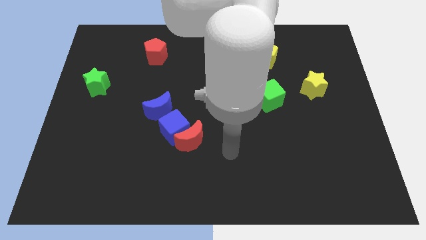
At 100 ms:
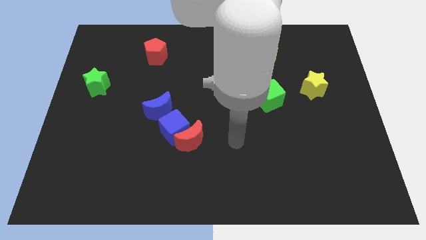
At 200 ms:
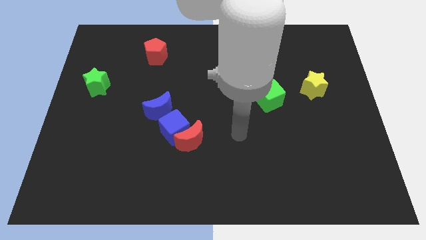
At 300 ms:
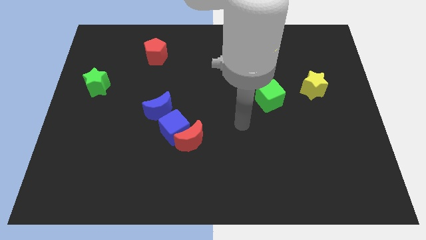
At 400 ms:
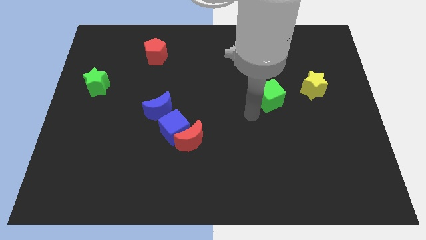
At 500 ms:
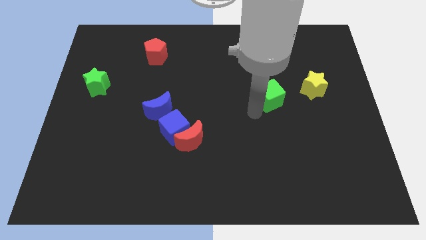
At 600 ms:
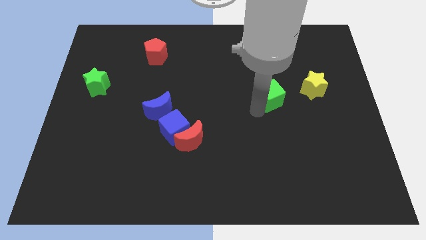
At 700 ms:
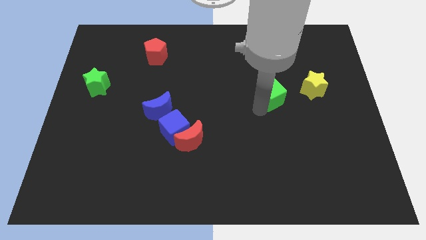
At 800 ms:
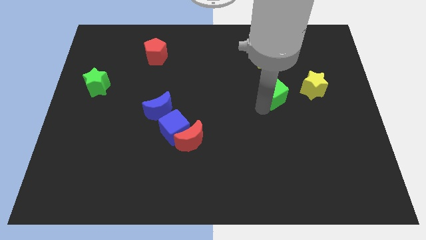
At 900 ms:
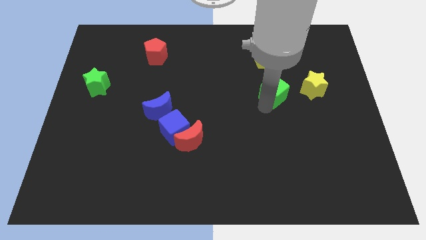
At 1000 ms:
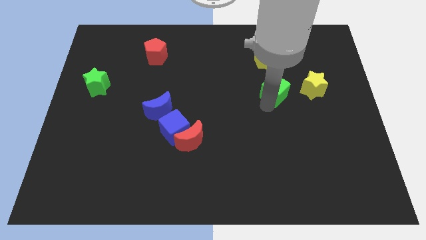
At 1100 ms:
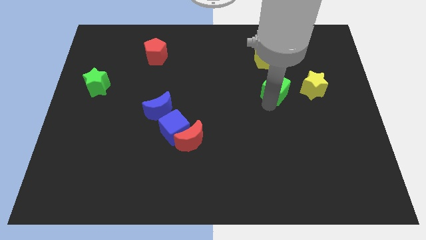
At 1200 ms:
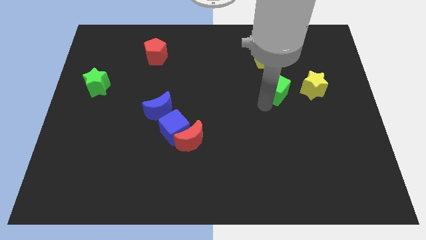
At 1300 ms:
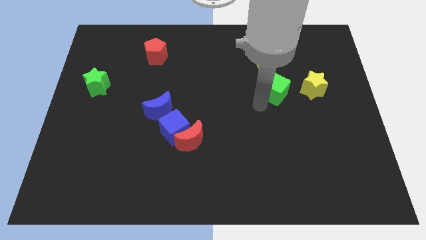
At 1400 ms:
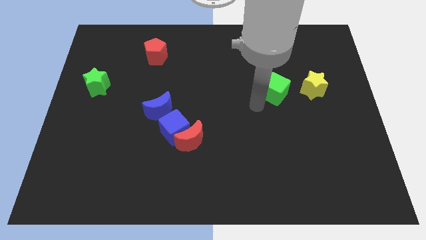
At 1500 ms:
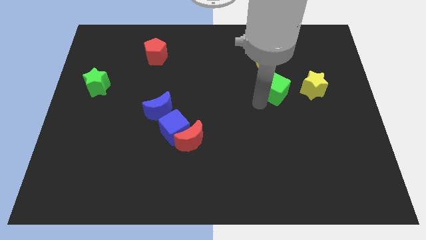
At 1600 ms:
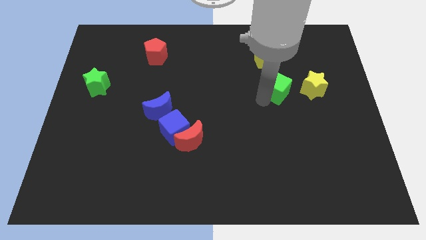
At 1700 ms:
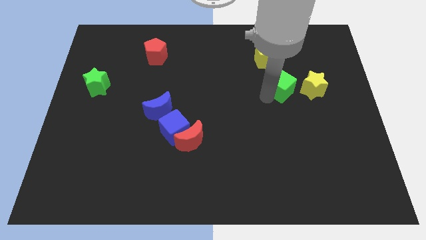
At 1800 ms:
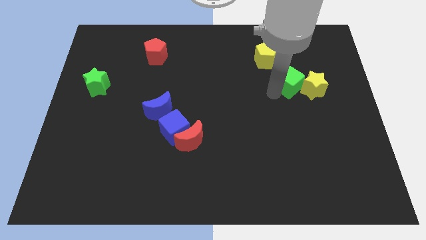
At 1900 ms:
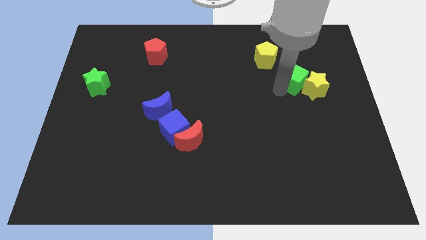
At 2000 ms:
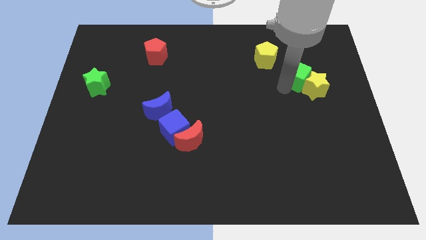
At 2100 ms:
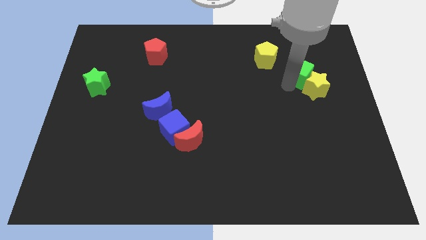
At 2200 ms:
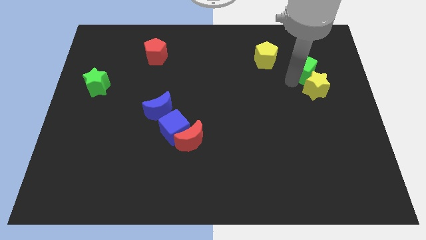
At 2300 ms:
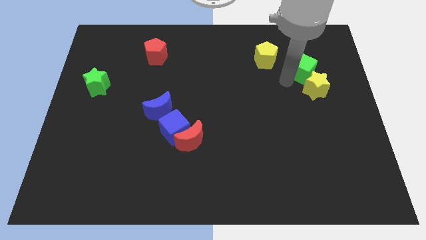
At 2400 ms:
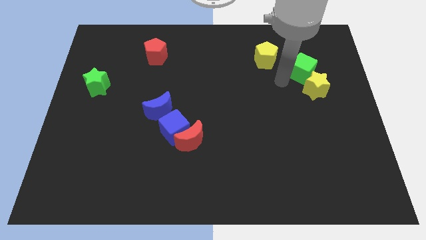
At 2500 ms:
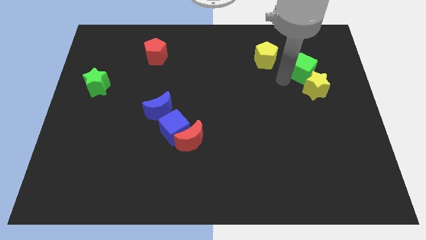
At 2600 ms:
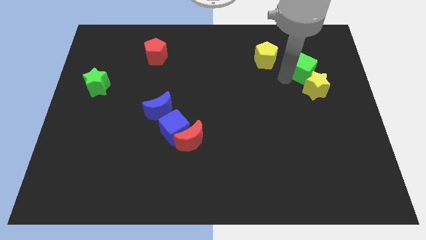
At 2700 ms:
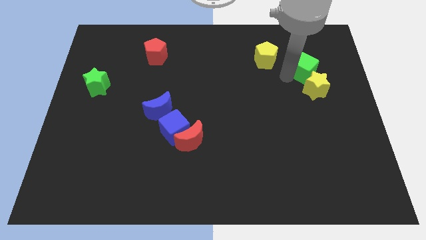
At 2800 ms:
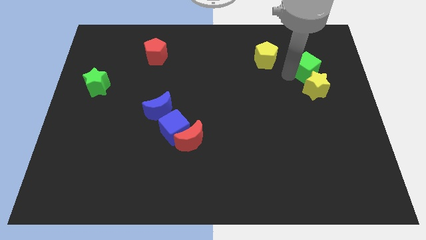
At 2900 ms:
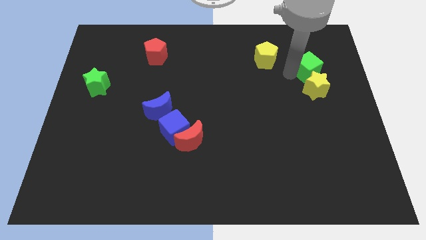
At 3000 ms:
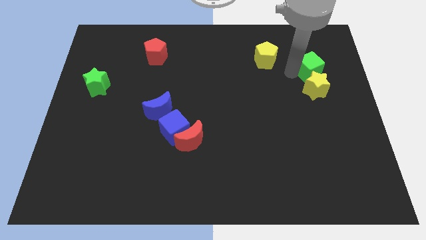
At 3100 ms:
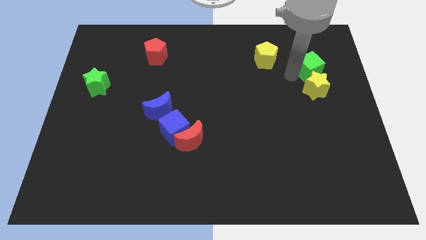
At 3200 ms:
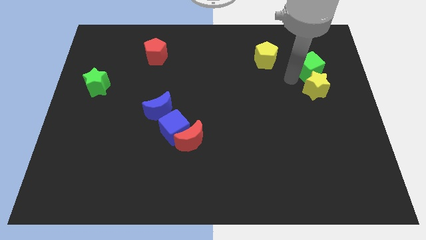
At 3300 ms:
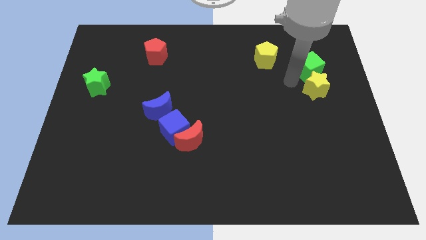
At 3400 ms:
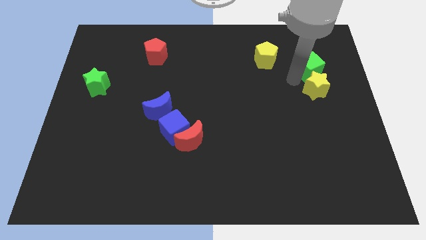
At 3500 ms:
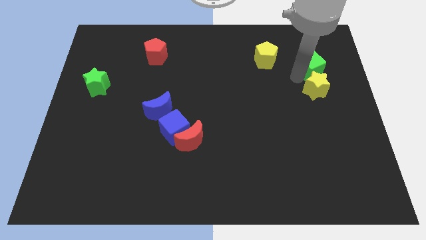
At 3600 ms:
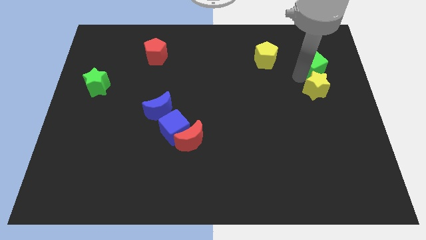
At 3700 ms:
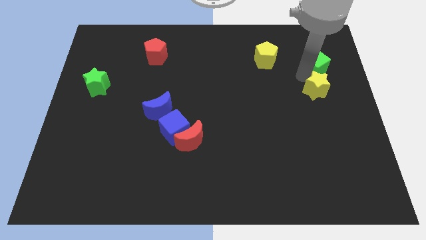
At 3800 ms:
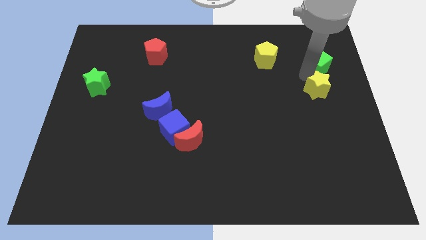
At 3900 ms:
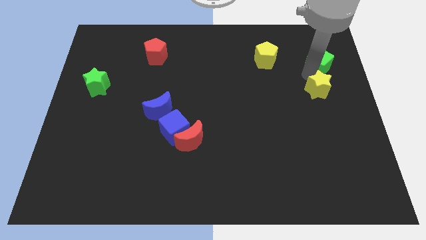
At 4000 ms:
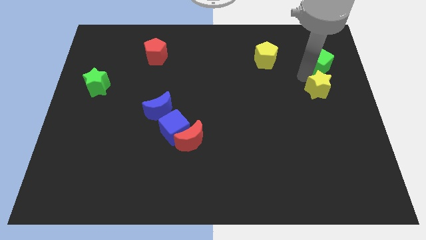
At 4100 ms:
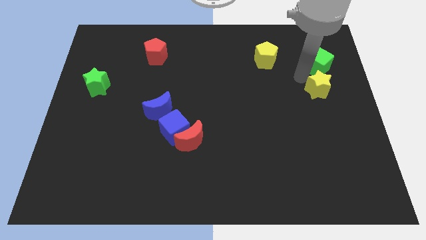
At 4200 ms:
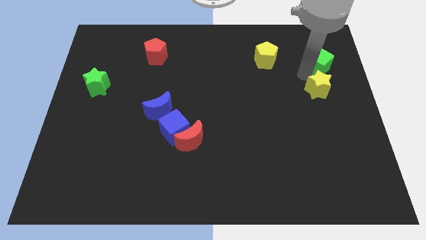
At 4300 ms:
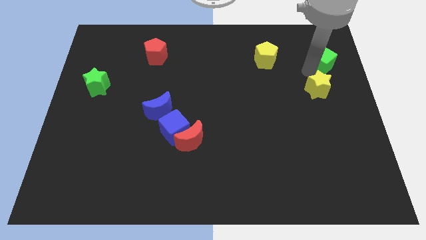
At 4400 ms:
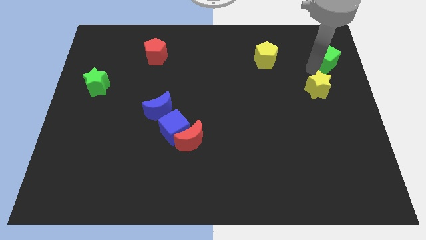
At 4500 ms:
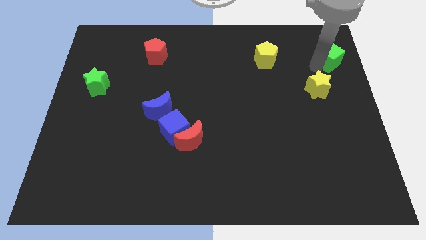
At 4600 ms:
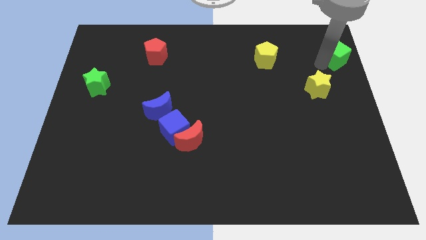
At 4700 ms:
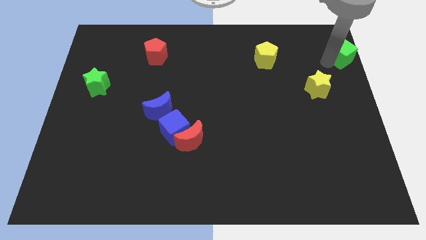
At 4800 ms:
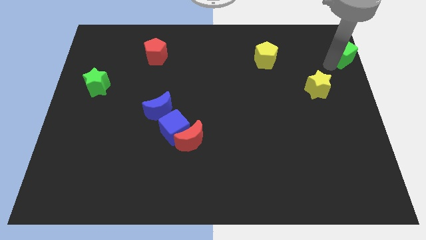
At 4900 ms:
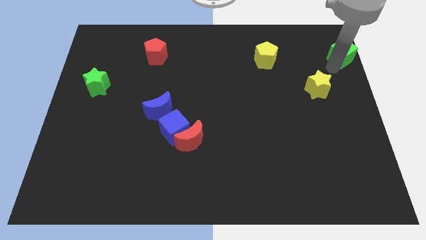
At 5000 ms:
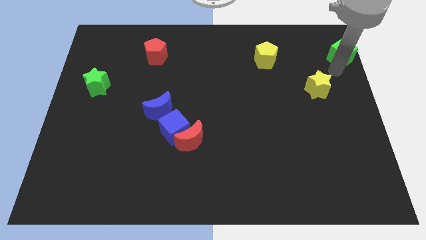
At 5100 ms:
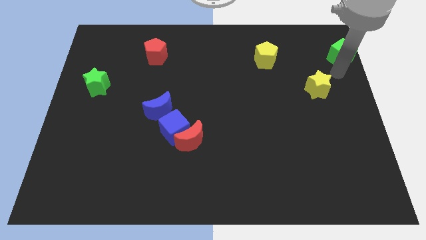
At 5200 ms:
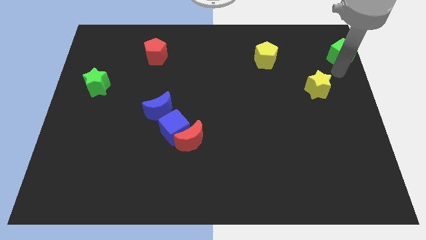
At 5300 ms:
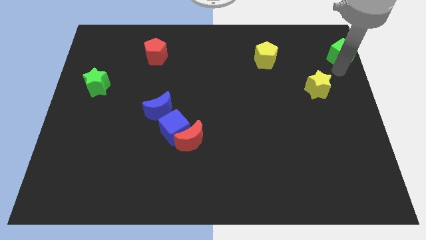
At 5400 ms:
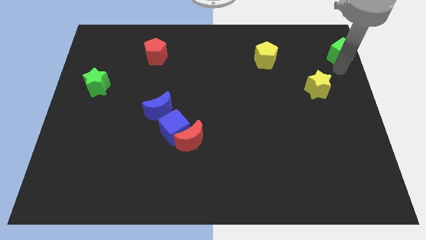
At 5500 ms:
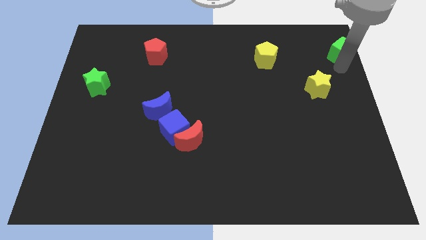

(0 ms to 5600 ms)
put the green cube to the top right corner
